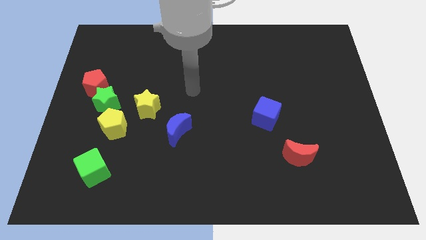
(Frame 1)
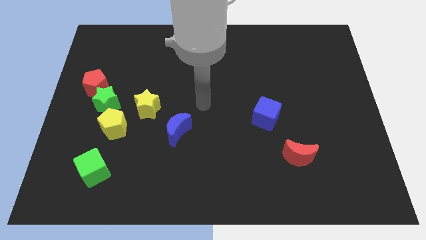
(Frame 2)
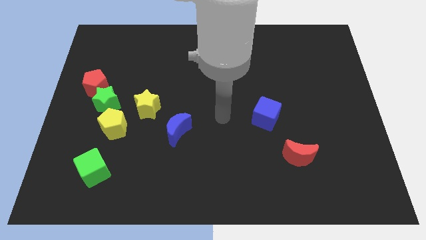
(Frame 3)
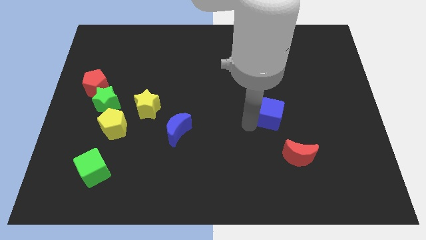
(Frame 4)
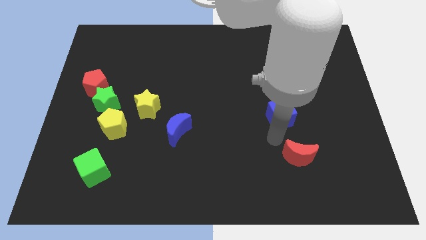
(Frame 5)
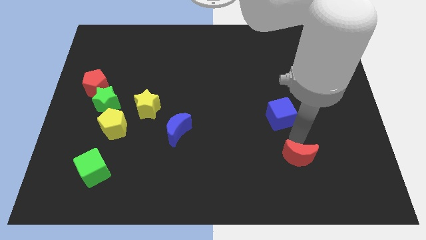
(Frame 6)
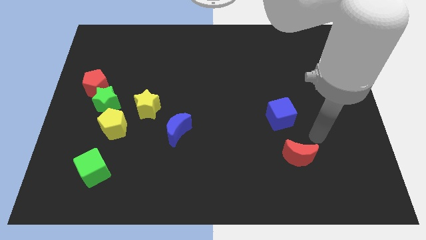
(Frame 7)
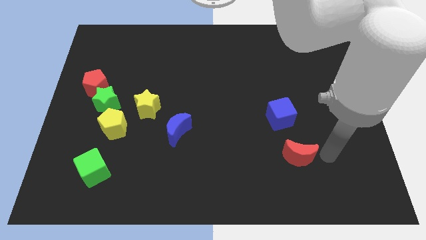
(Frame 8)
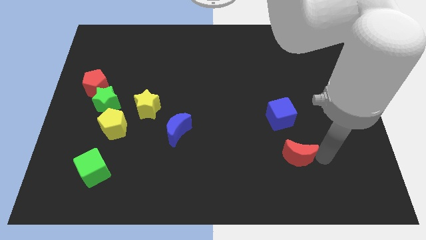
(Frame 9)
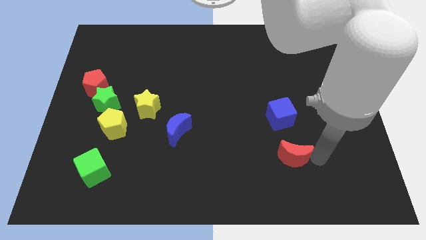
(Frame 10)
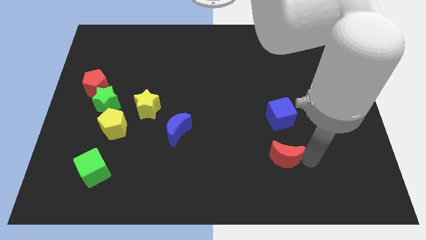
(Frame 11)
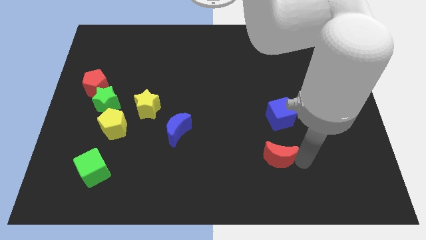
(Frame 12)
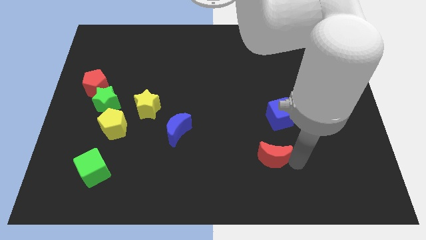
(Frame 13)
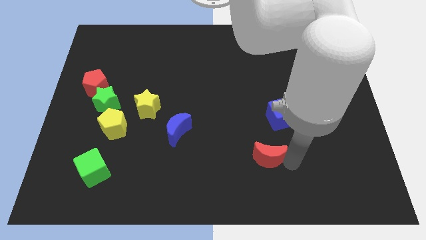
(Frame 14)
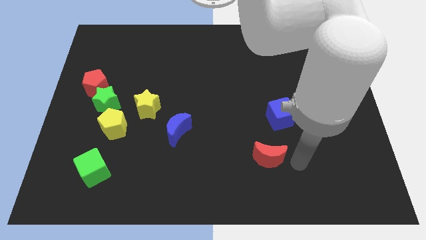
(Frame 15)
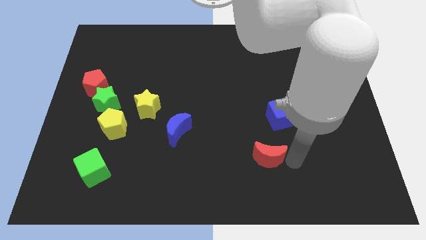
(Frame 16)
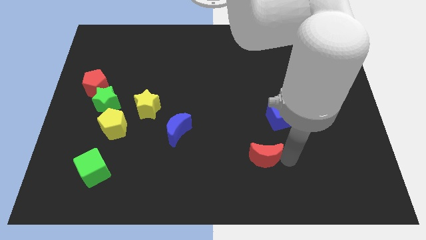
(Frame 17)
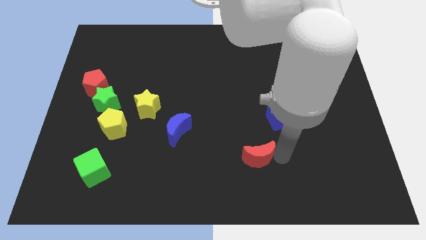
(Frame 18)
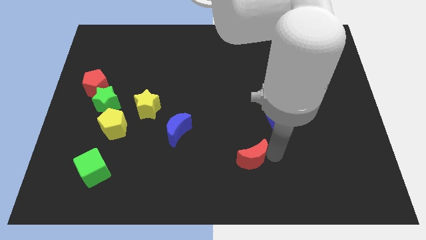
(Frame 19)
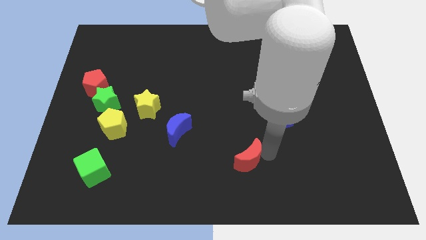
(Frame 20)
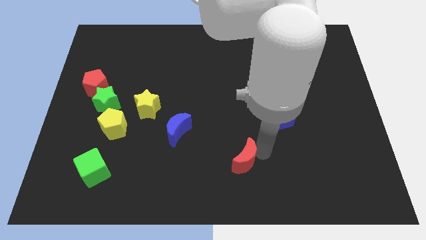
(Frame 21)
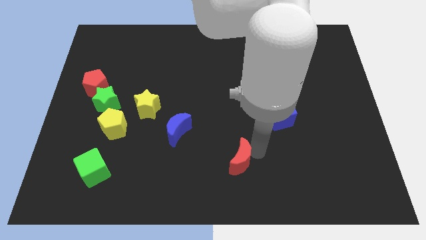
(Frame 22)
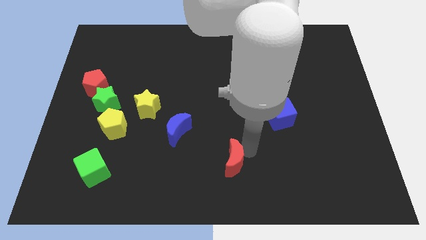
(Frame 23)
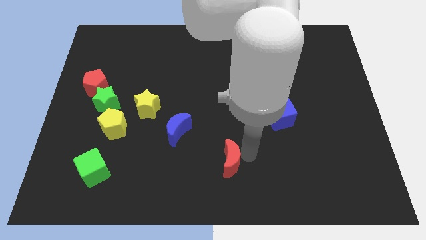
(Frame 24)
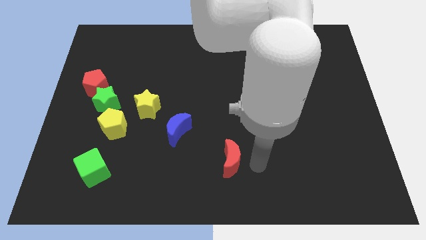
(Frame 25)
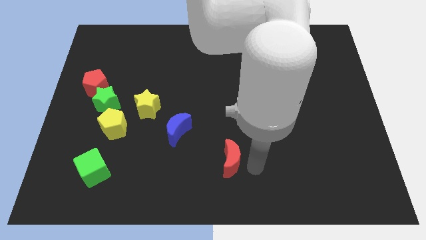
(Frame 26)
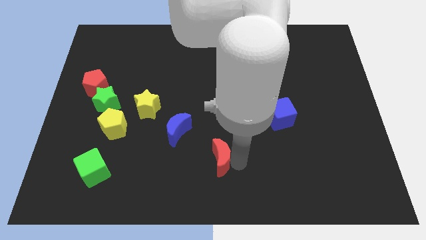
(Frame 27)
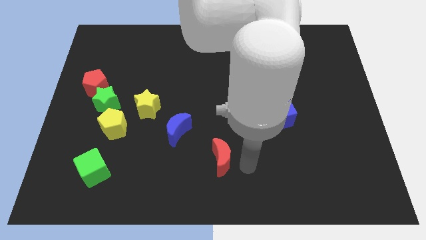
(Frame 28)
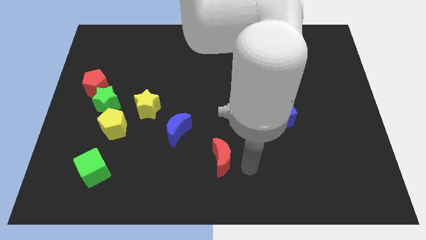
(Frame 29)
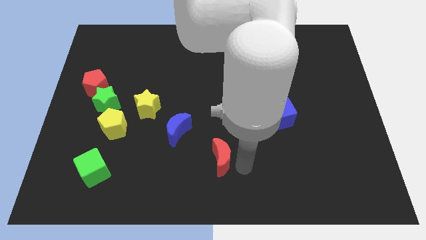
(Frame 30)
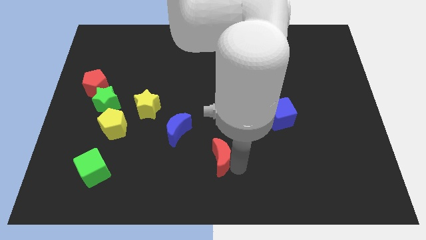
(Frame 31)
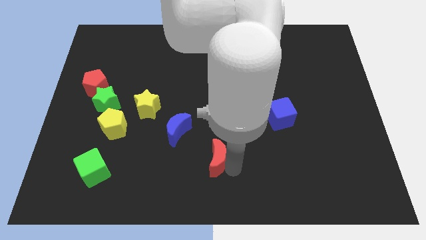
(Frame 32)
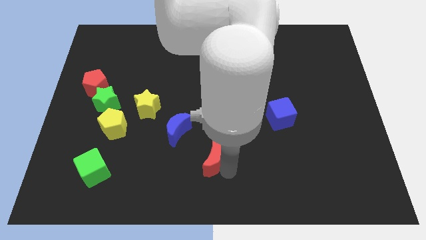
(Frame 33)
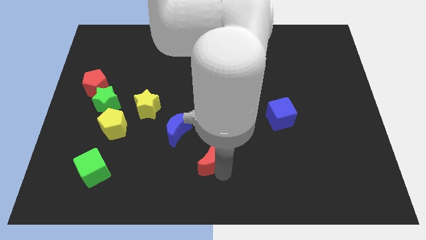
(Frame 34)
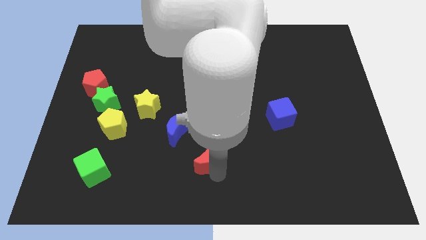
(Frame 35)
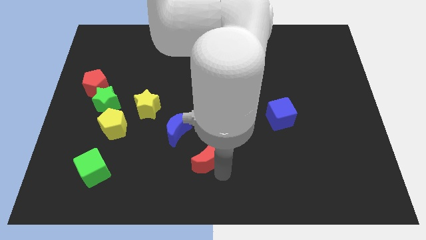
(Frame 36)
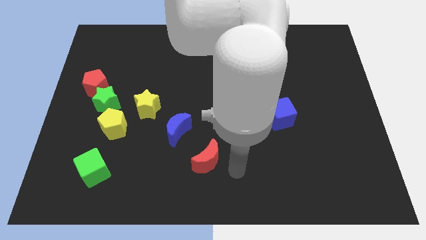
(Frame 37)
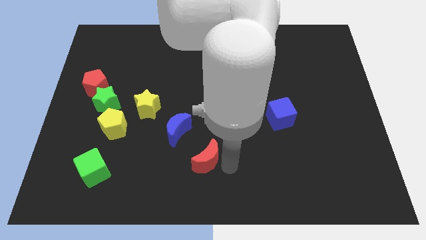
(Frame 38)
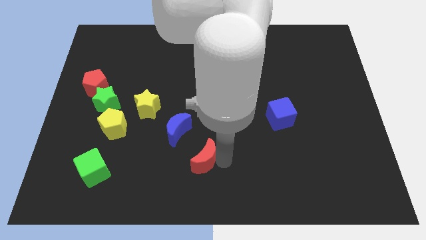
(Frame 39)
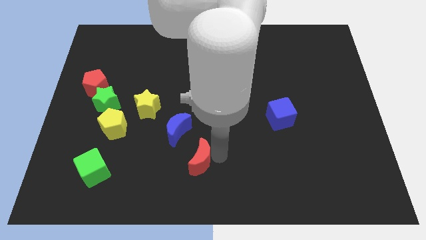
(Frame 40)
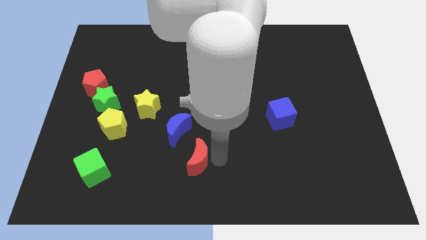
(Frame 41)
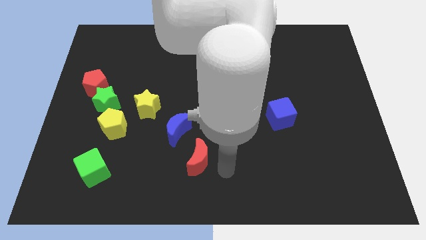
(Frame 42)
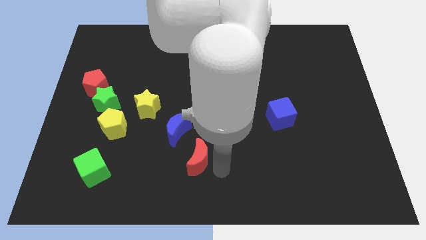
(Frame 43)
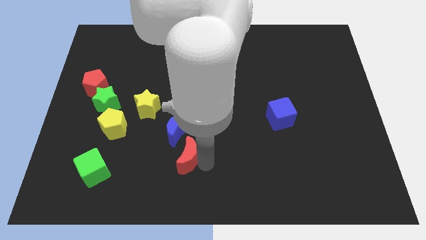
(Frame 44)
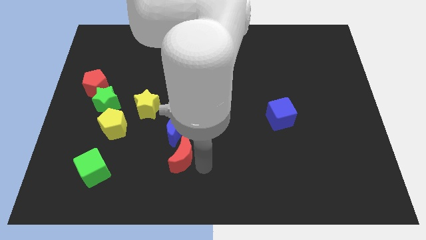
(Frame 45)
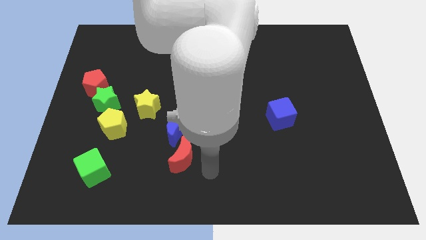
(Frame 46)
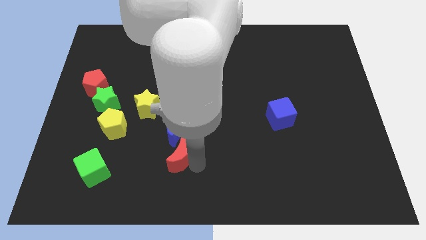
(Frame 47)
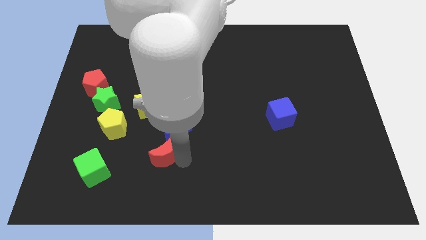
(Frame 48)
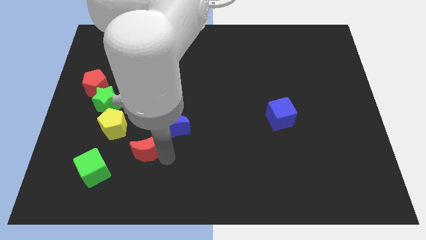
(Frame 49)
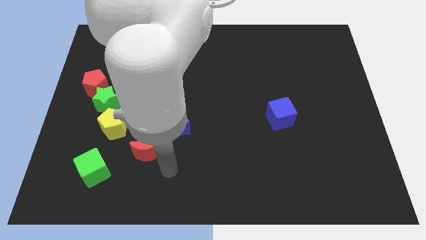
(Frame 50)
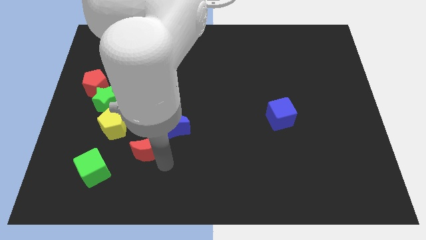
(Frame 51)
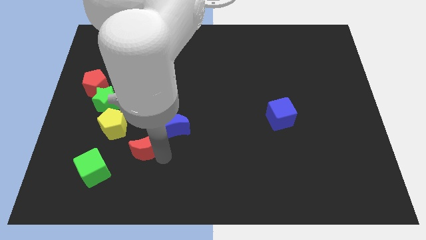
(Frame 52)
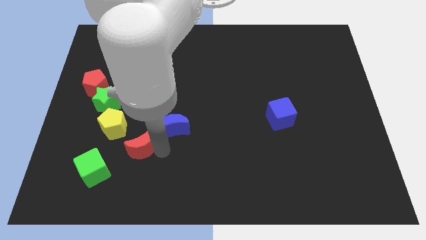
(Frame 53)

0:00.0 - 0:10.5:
push the red moon to the left side of the blue moon

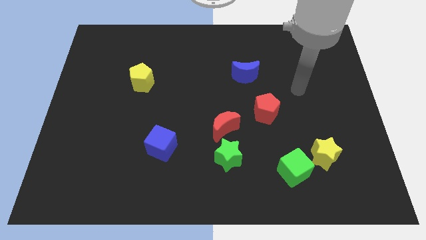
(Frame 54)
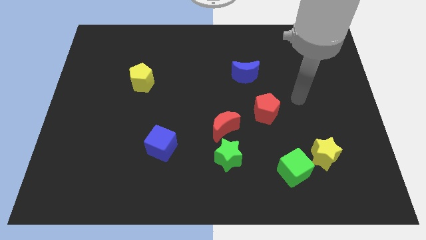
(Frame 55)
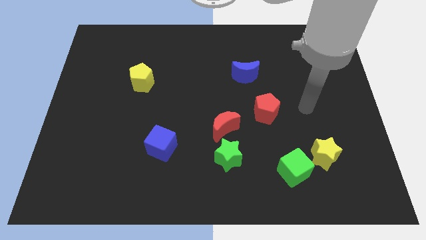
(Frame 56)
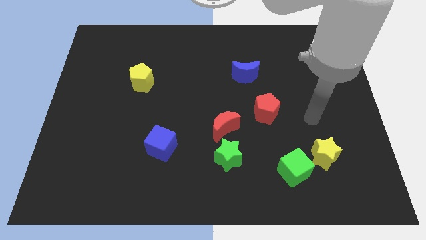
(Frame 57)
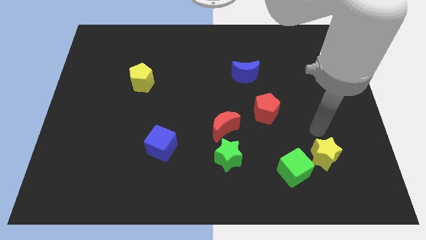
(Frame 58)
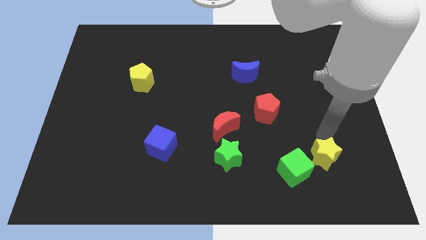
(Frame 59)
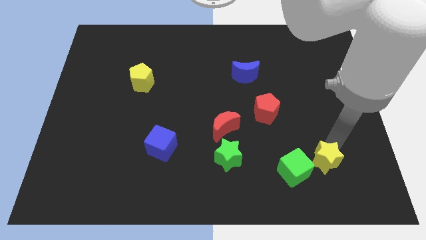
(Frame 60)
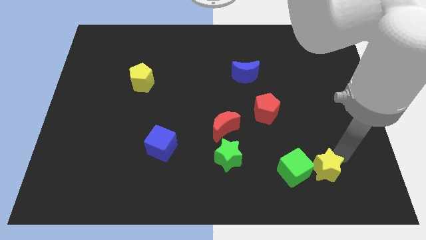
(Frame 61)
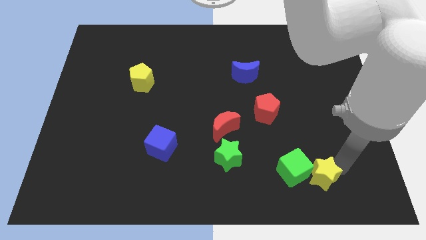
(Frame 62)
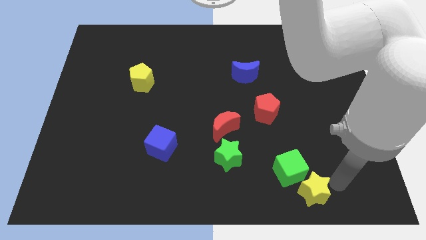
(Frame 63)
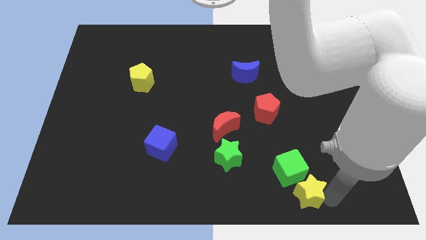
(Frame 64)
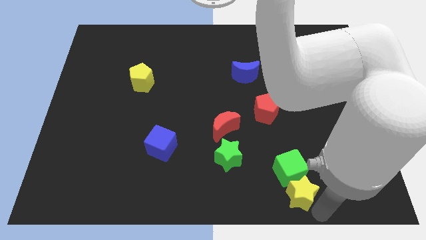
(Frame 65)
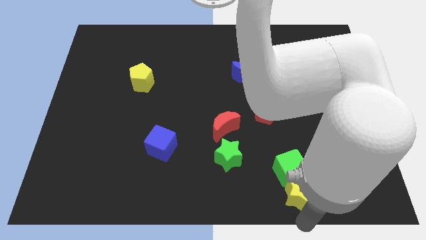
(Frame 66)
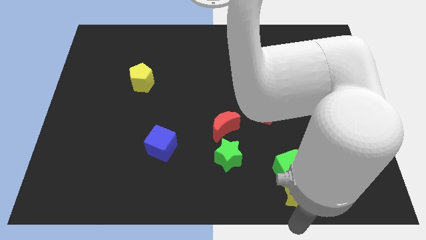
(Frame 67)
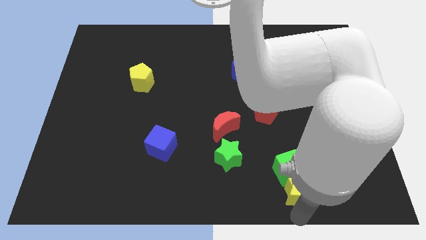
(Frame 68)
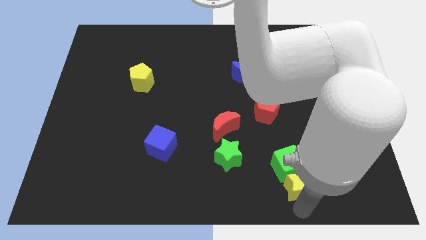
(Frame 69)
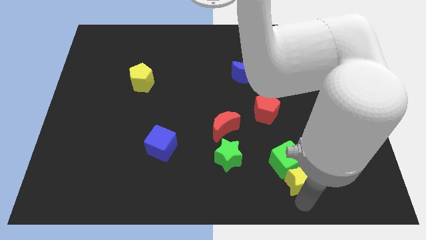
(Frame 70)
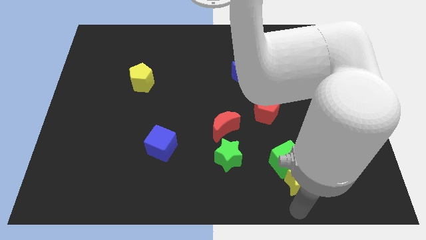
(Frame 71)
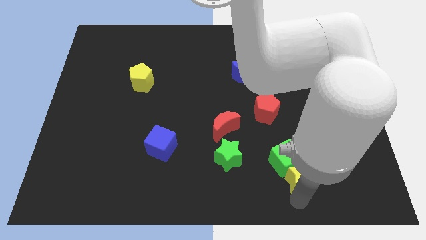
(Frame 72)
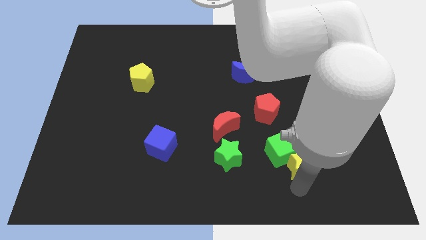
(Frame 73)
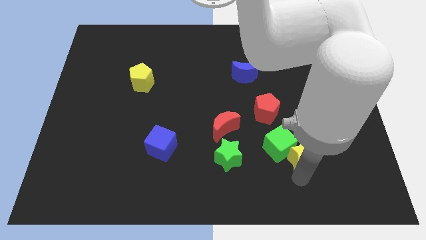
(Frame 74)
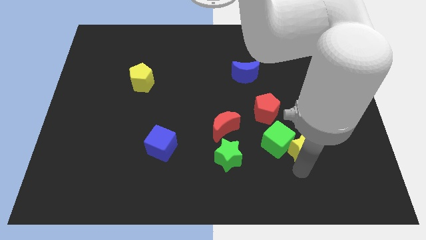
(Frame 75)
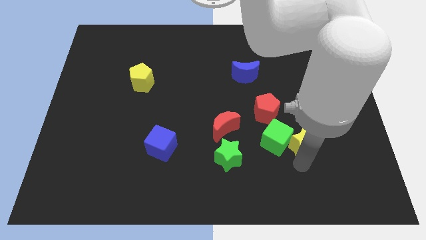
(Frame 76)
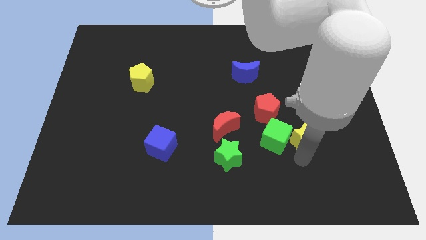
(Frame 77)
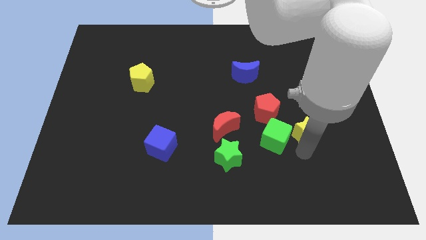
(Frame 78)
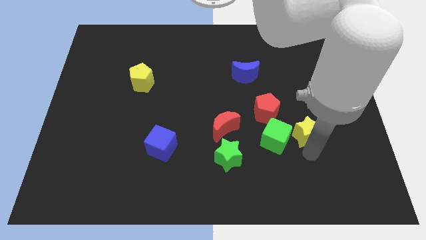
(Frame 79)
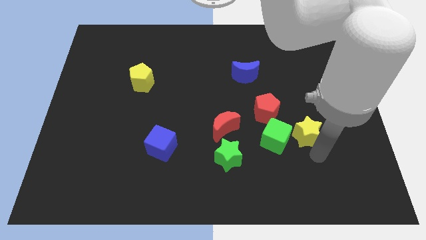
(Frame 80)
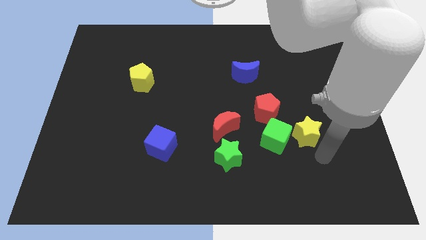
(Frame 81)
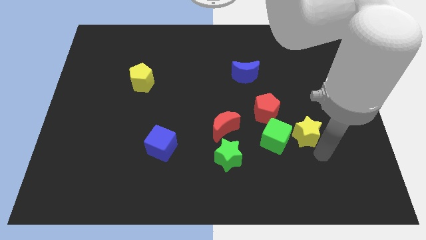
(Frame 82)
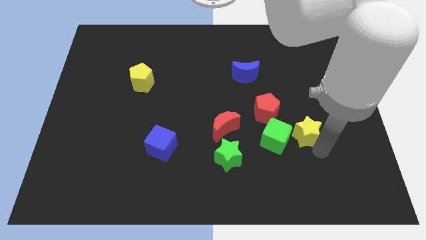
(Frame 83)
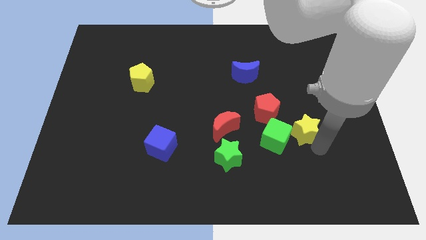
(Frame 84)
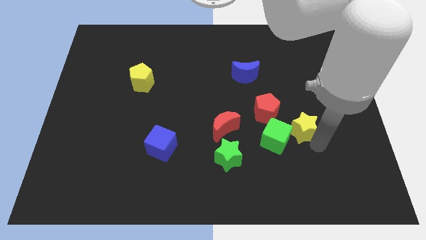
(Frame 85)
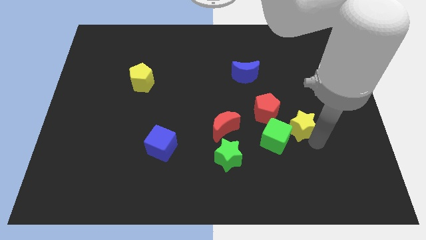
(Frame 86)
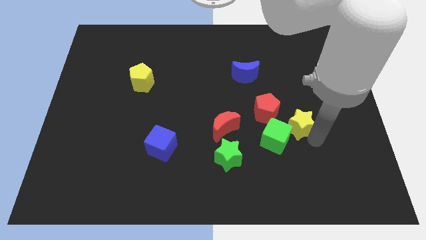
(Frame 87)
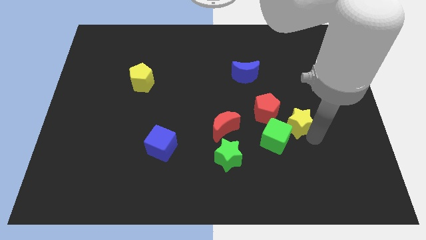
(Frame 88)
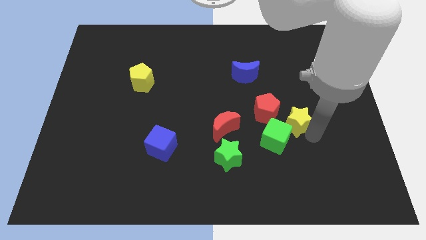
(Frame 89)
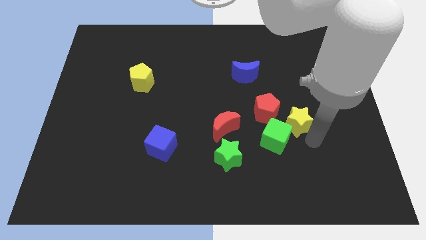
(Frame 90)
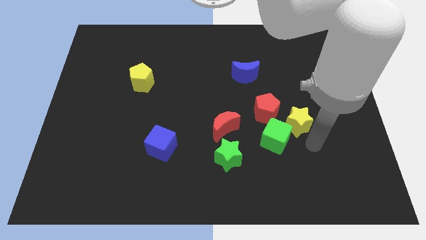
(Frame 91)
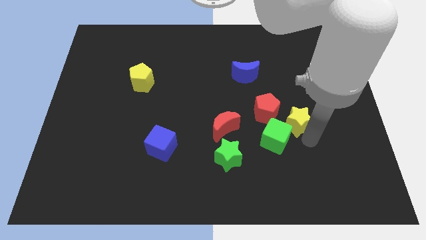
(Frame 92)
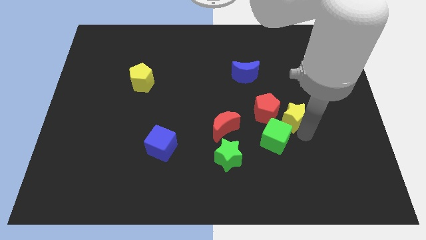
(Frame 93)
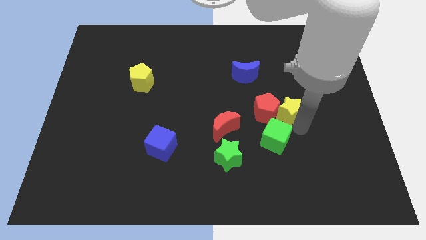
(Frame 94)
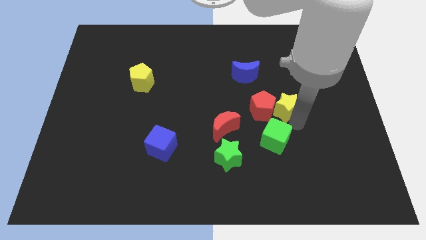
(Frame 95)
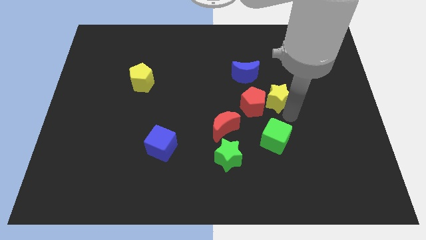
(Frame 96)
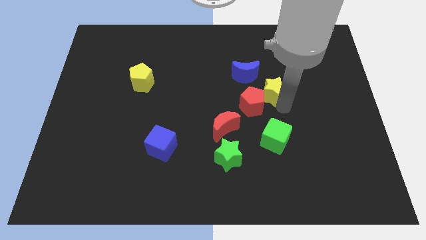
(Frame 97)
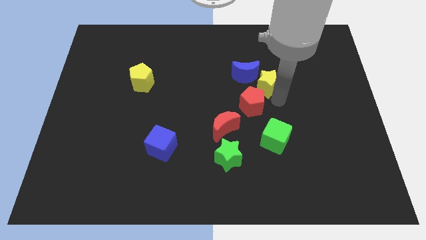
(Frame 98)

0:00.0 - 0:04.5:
put the yellow star to the top side of the red pentagon
